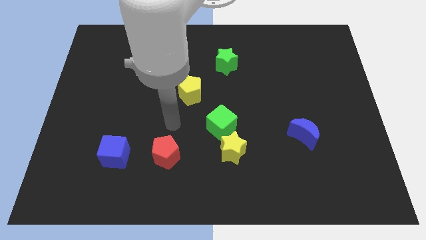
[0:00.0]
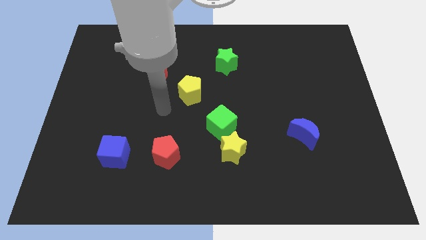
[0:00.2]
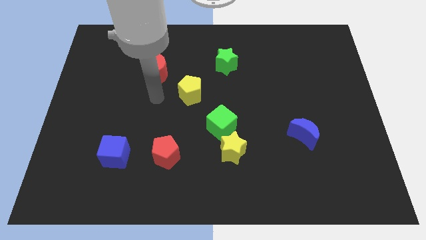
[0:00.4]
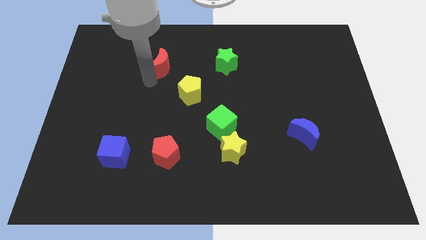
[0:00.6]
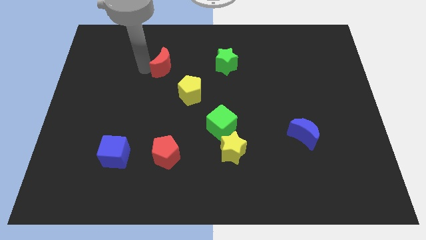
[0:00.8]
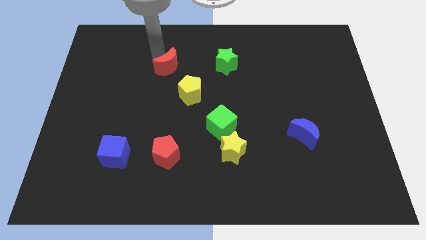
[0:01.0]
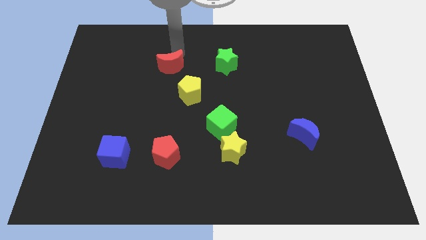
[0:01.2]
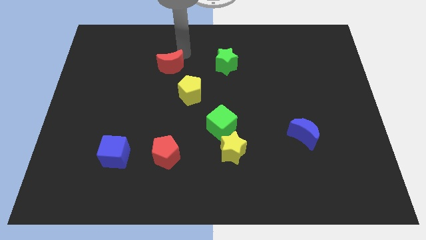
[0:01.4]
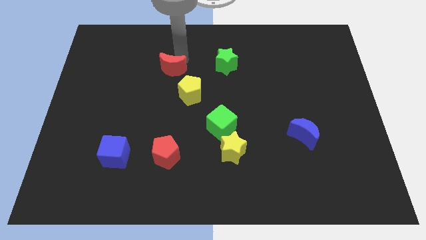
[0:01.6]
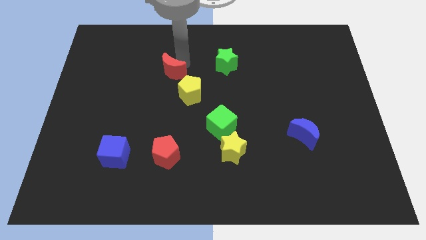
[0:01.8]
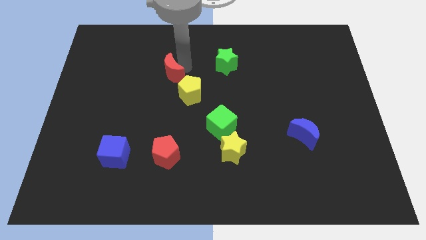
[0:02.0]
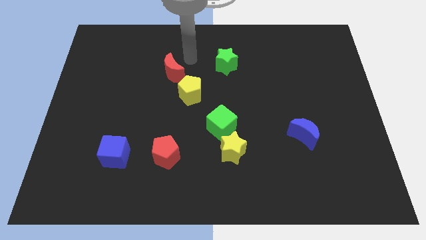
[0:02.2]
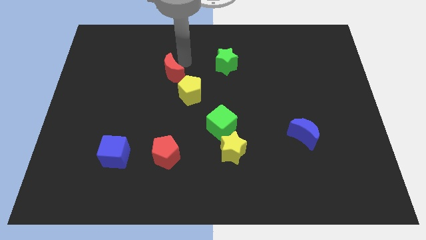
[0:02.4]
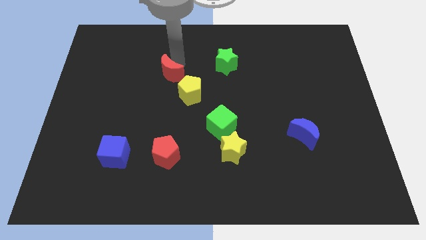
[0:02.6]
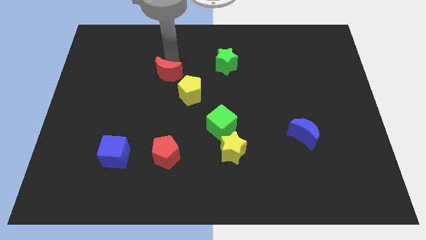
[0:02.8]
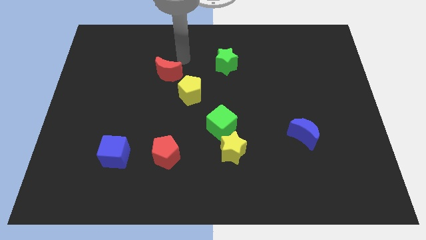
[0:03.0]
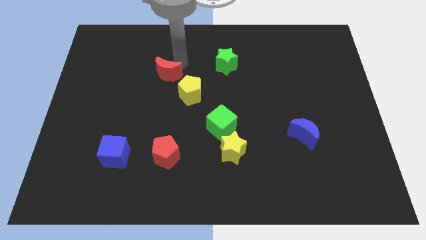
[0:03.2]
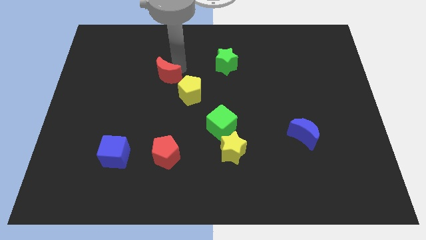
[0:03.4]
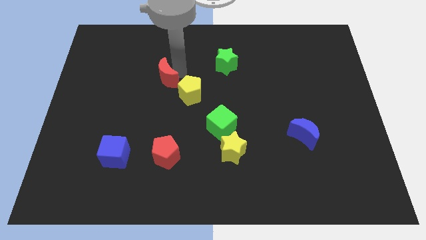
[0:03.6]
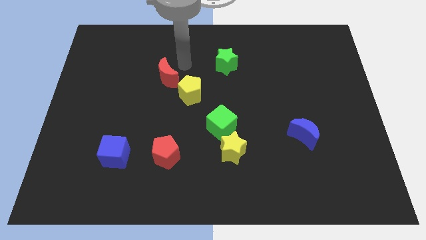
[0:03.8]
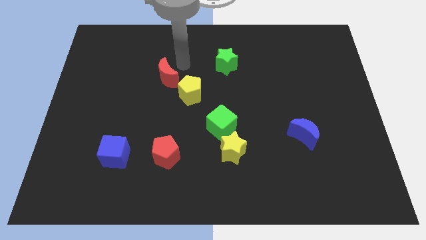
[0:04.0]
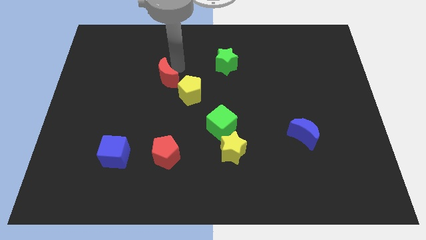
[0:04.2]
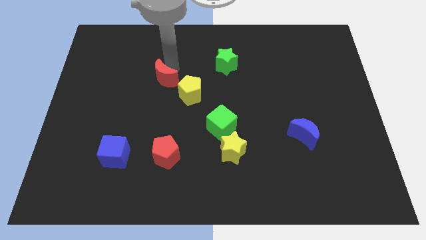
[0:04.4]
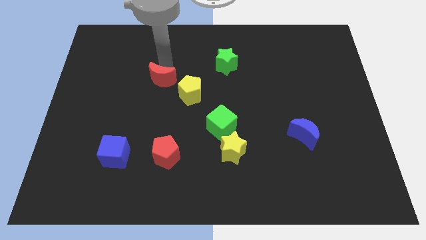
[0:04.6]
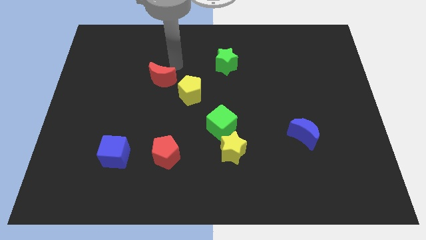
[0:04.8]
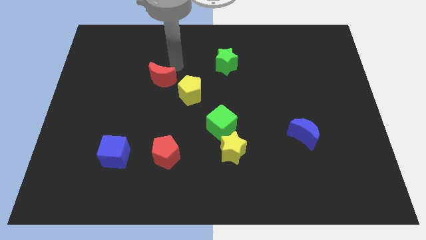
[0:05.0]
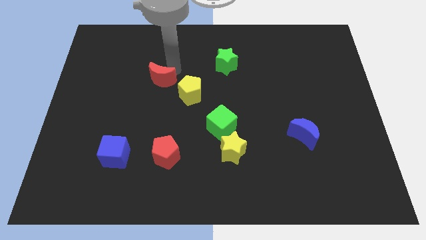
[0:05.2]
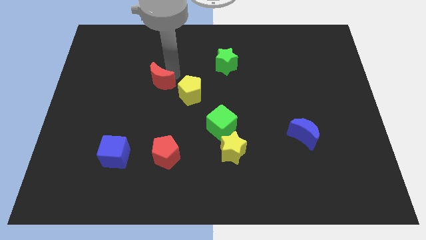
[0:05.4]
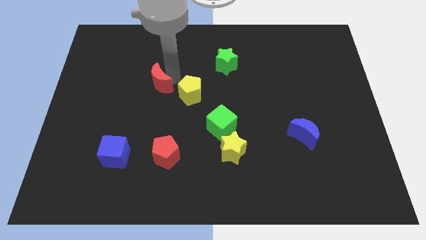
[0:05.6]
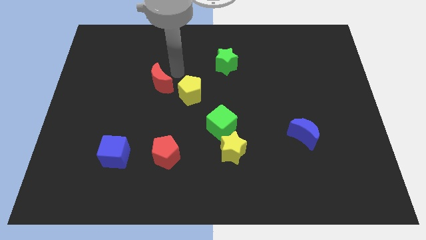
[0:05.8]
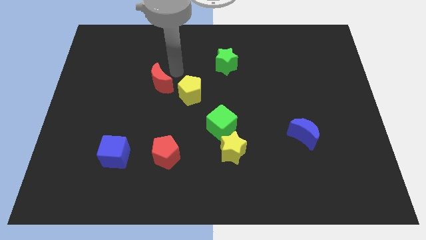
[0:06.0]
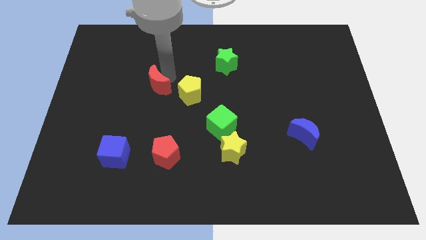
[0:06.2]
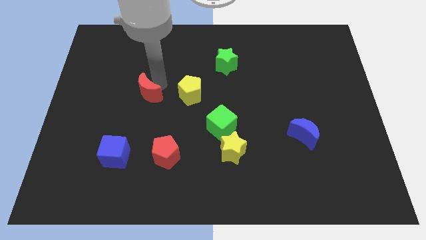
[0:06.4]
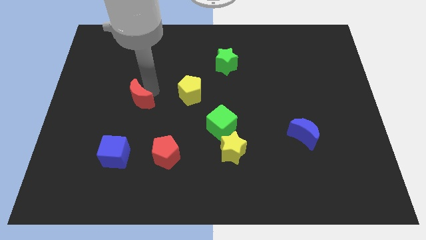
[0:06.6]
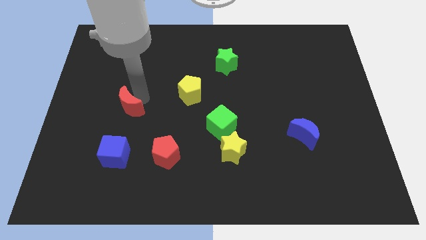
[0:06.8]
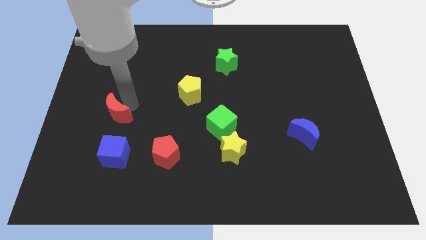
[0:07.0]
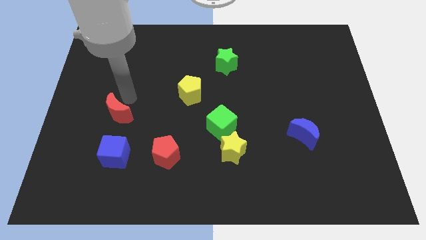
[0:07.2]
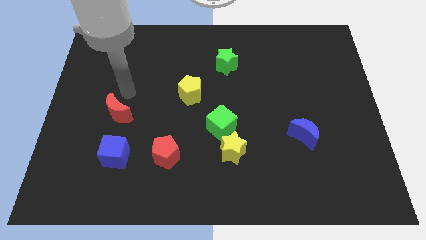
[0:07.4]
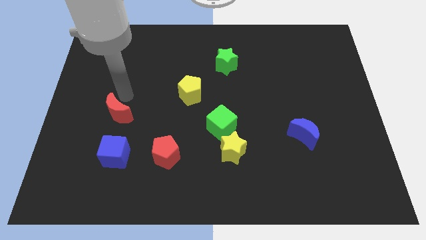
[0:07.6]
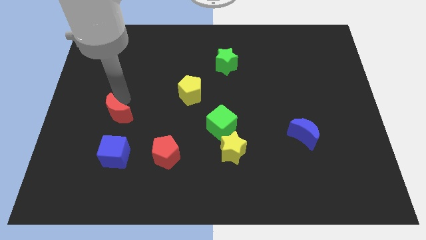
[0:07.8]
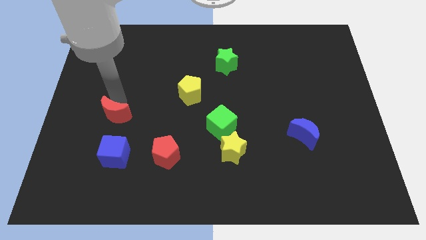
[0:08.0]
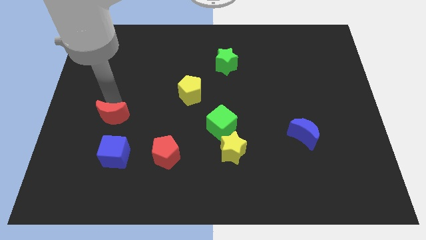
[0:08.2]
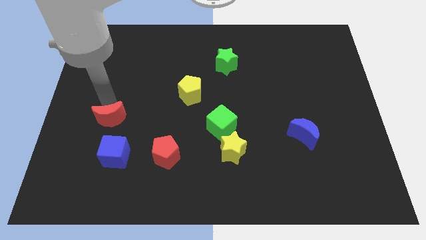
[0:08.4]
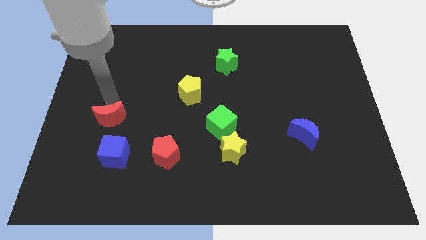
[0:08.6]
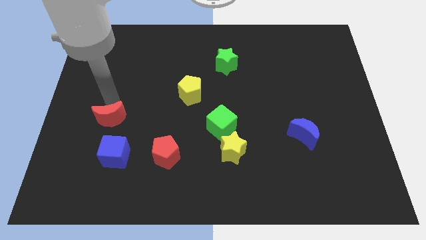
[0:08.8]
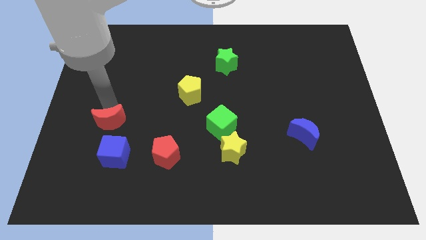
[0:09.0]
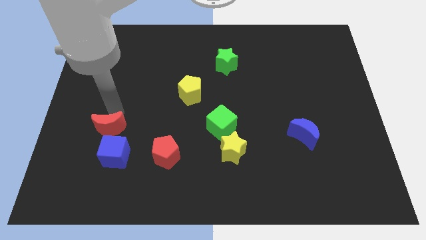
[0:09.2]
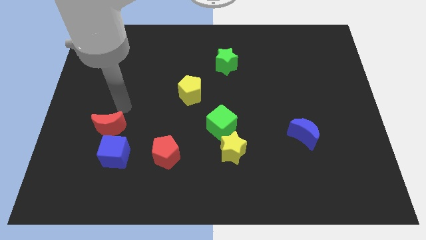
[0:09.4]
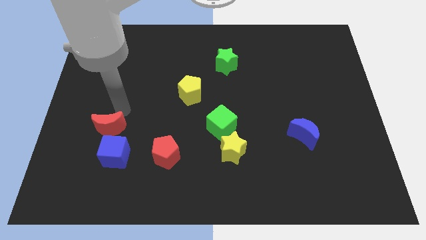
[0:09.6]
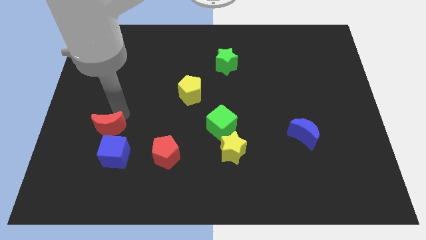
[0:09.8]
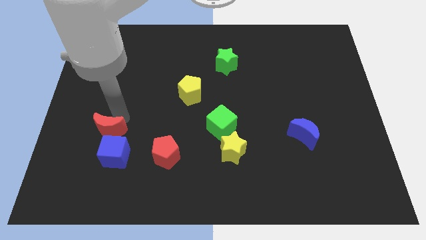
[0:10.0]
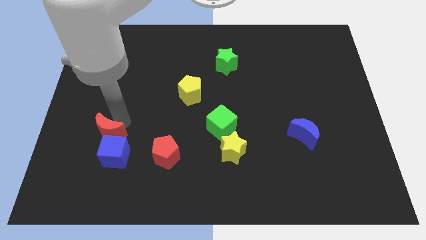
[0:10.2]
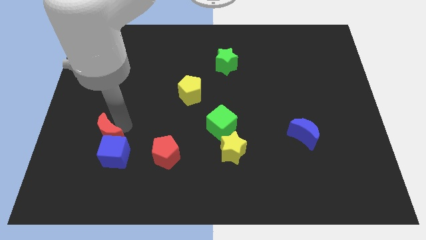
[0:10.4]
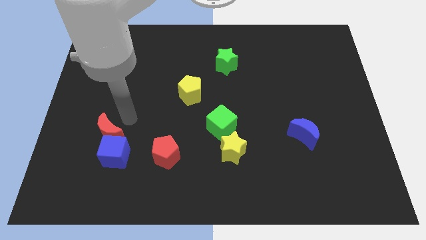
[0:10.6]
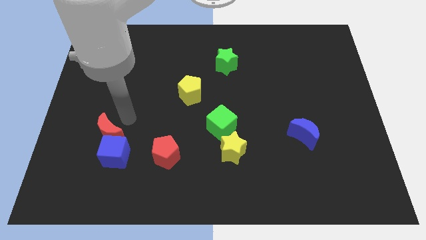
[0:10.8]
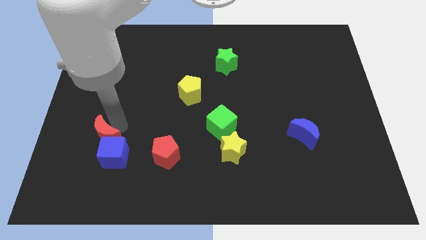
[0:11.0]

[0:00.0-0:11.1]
push the red moon just left of the red pentagon

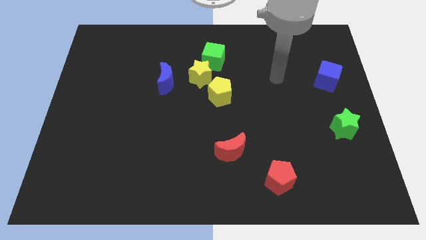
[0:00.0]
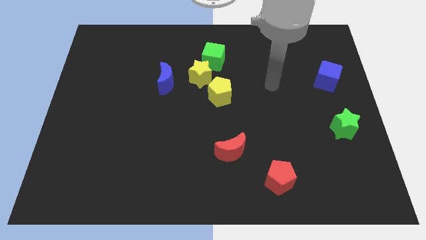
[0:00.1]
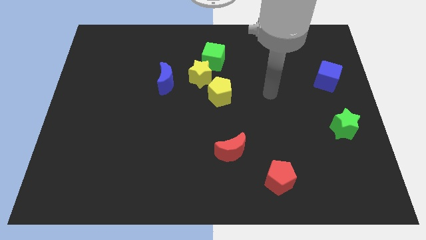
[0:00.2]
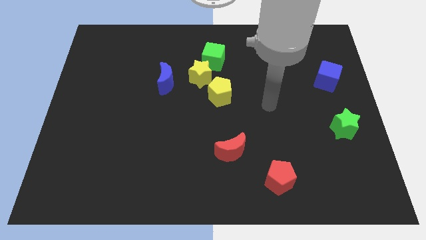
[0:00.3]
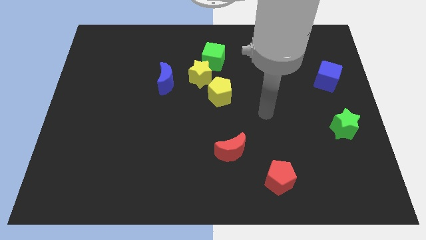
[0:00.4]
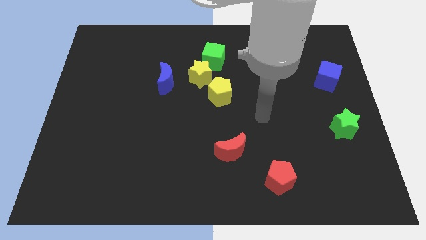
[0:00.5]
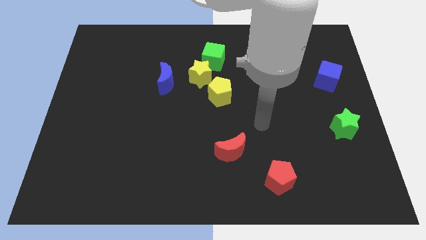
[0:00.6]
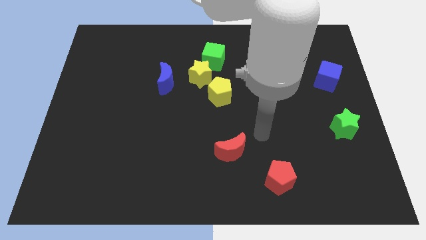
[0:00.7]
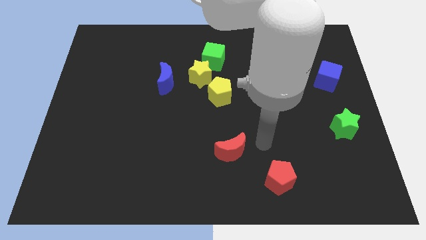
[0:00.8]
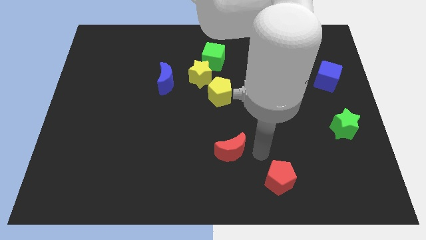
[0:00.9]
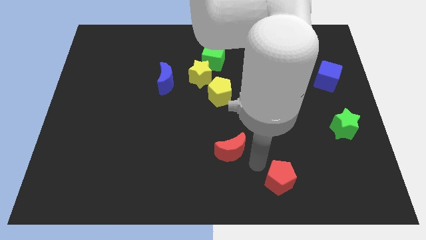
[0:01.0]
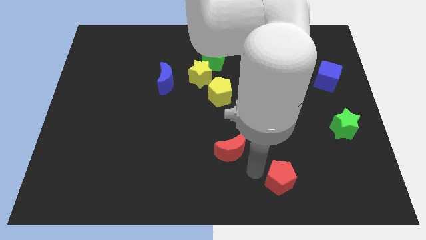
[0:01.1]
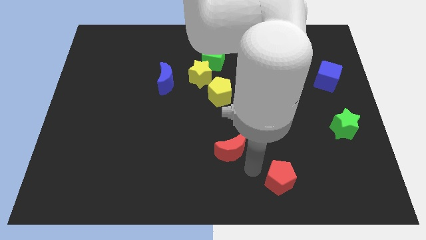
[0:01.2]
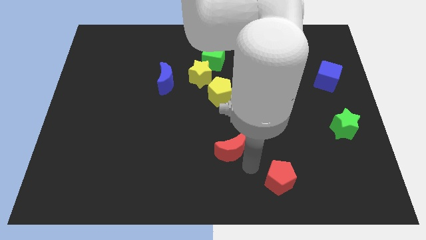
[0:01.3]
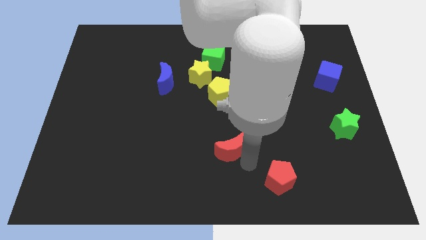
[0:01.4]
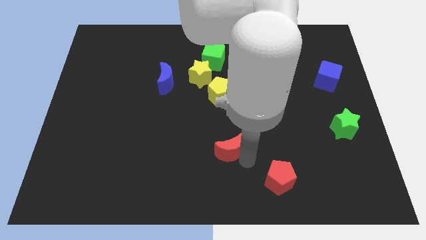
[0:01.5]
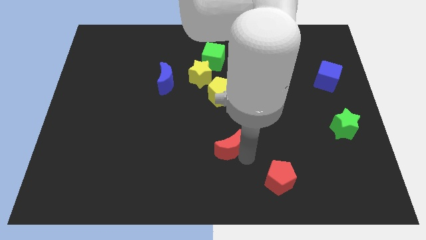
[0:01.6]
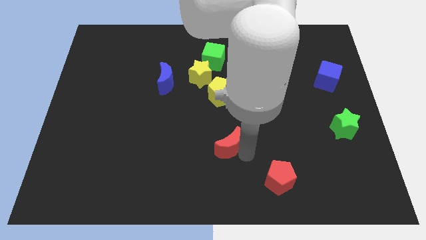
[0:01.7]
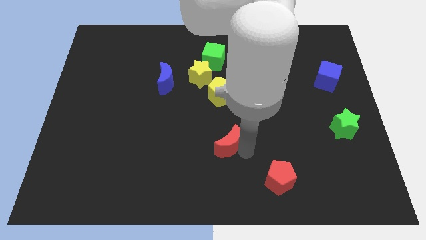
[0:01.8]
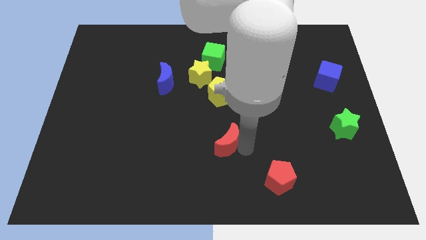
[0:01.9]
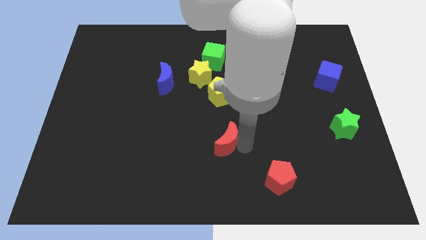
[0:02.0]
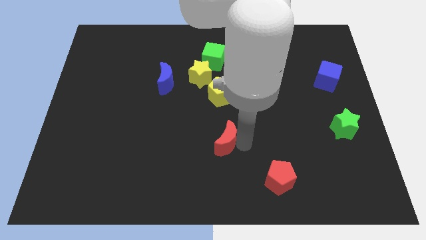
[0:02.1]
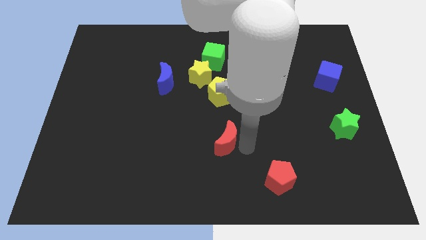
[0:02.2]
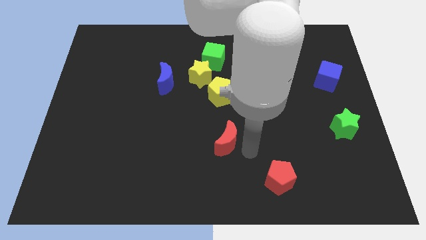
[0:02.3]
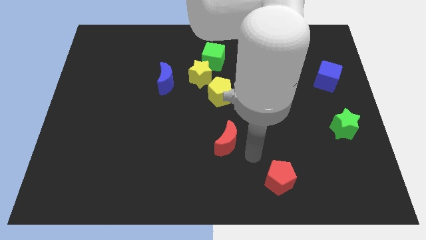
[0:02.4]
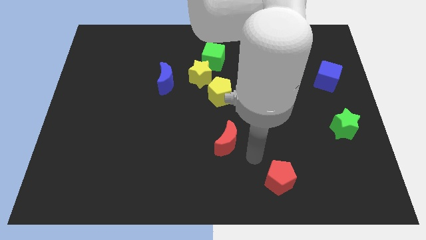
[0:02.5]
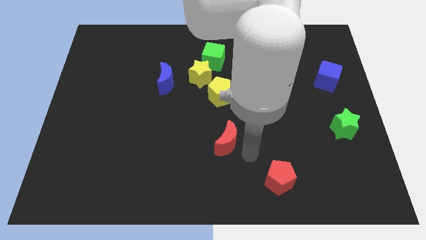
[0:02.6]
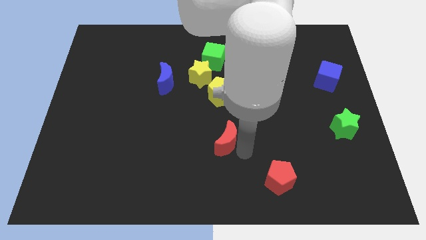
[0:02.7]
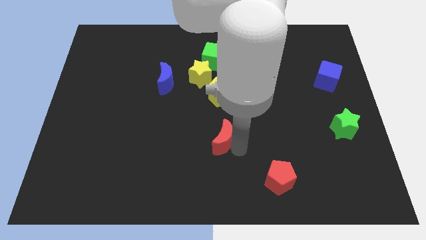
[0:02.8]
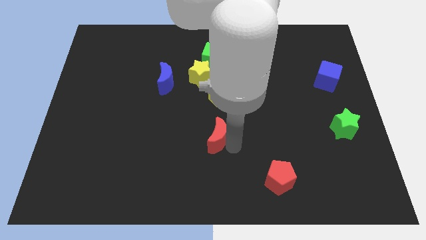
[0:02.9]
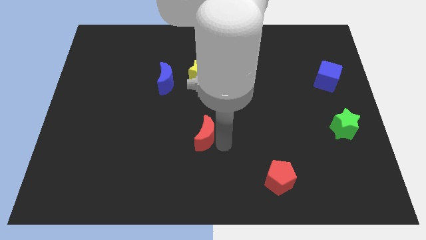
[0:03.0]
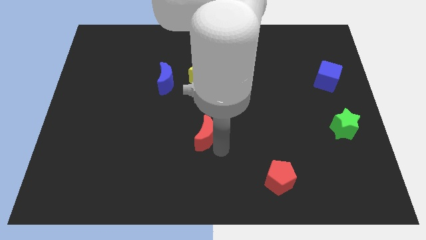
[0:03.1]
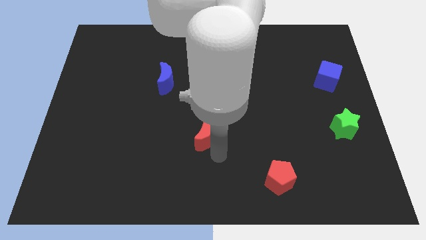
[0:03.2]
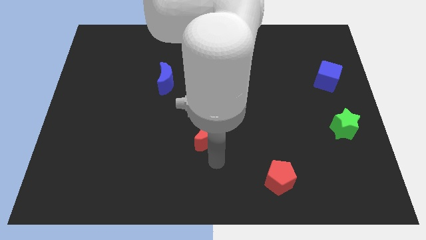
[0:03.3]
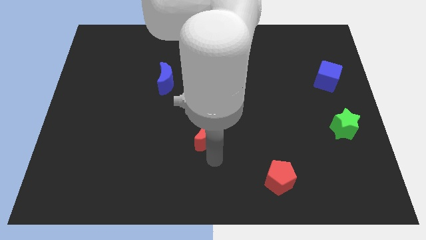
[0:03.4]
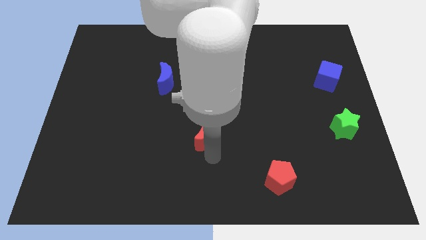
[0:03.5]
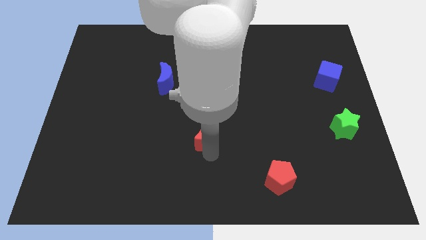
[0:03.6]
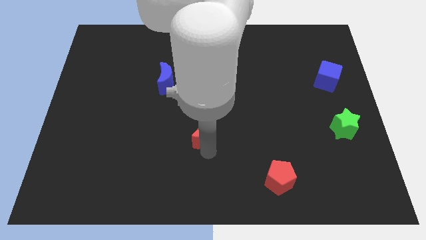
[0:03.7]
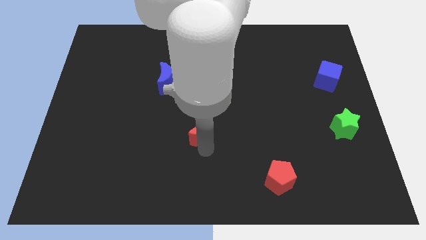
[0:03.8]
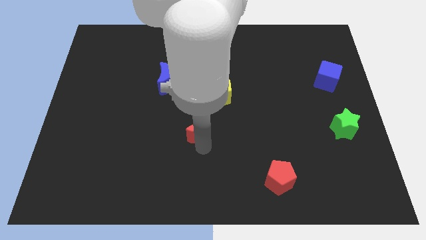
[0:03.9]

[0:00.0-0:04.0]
put the red moon diagonally down and to the left of the yellow pentagon
